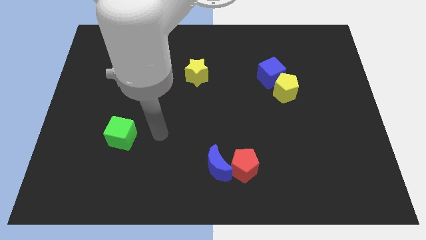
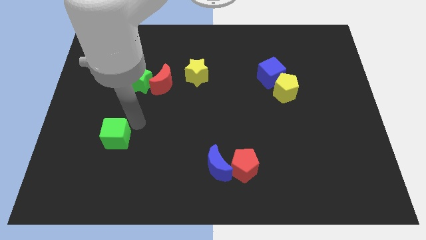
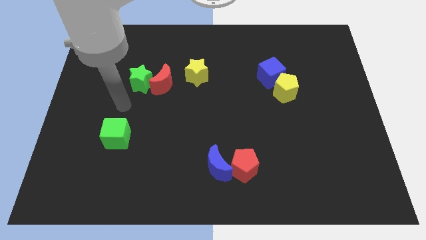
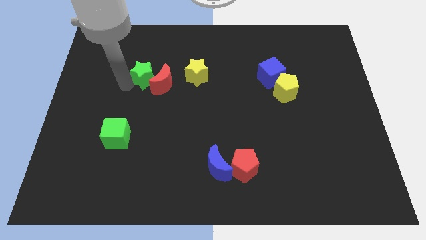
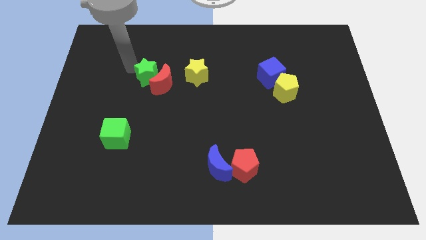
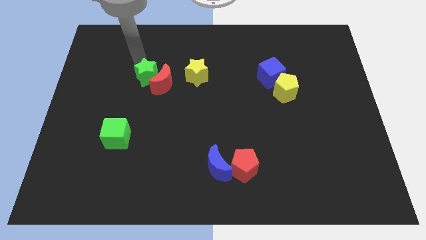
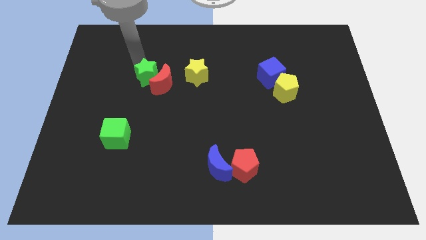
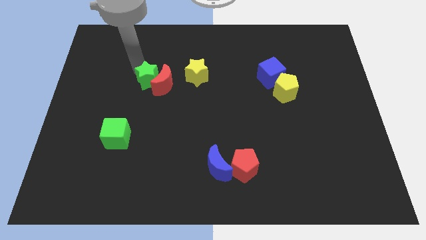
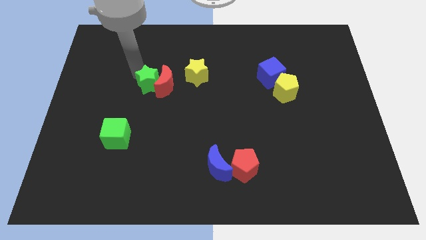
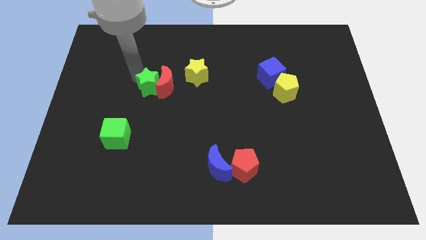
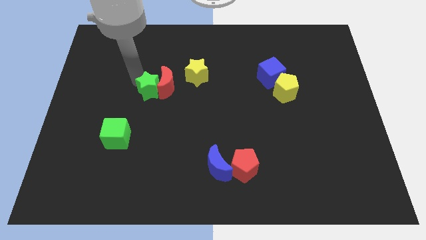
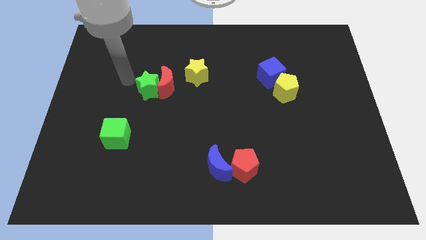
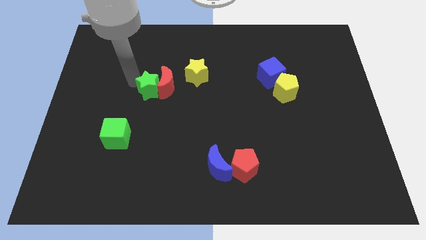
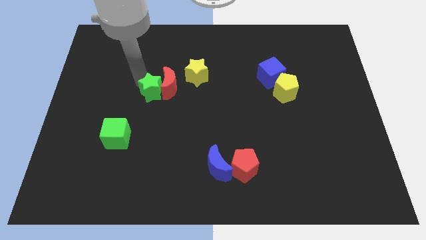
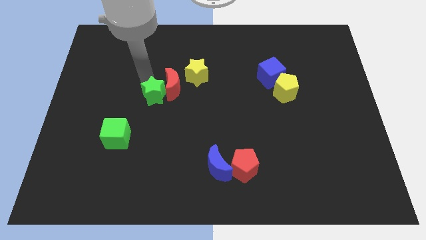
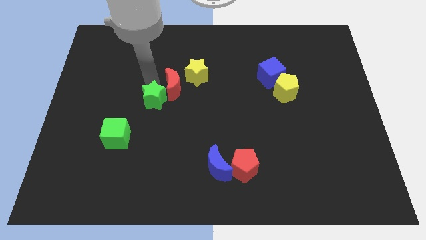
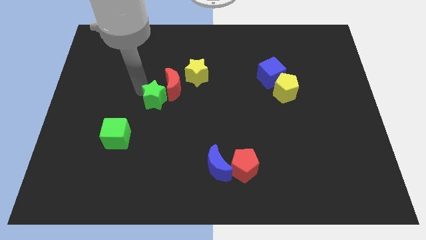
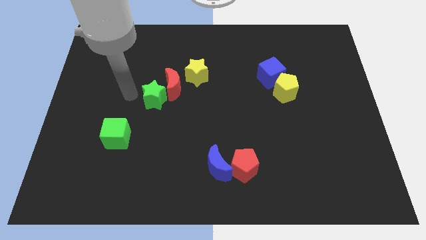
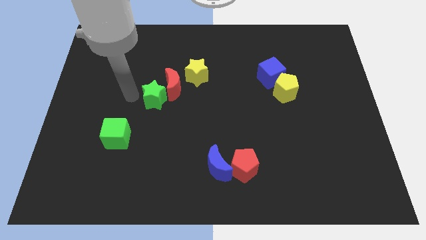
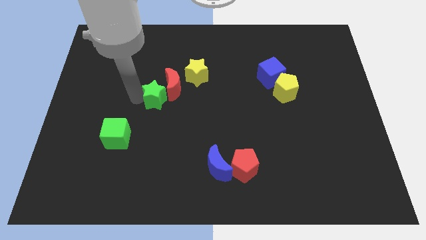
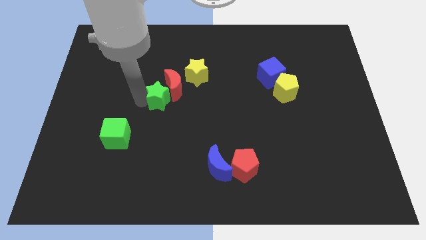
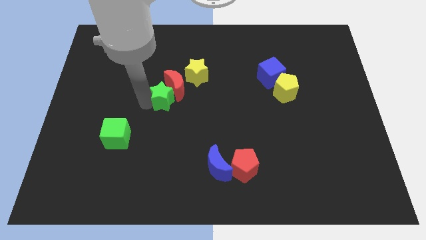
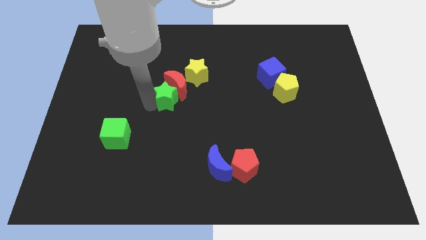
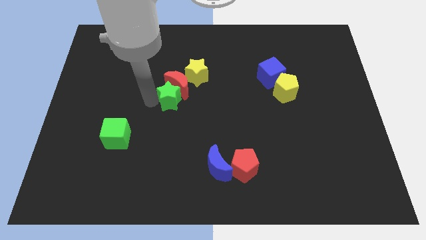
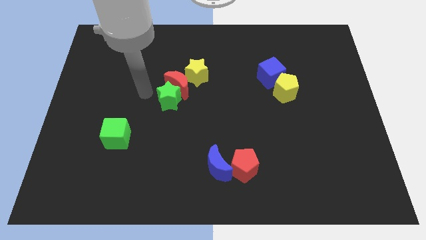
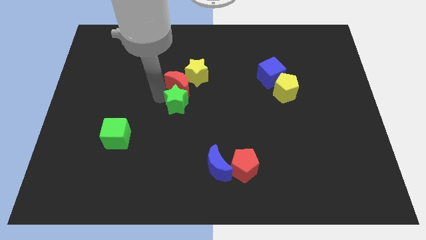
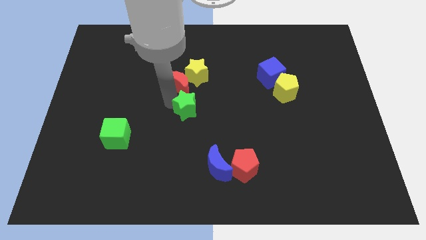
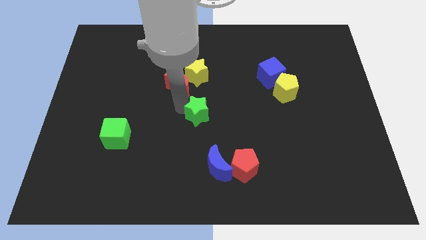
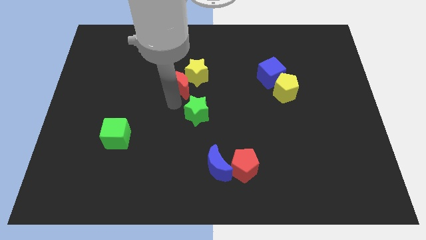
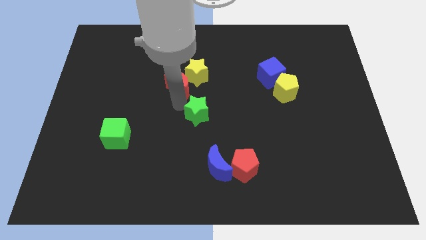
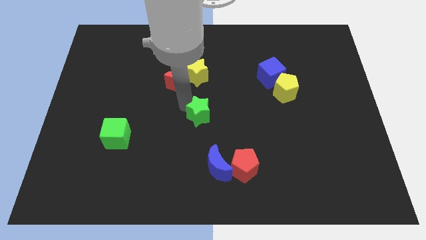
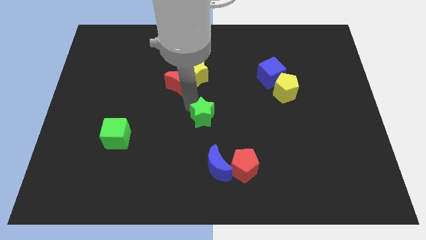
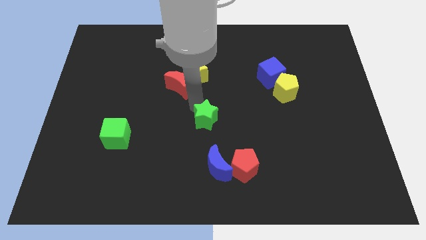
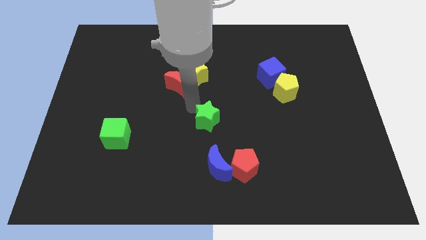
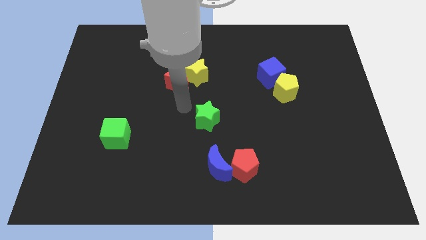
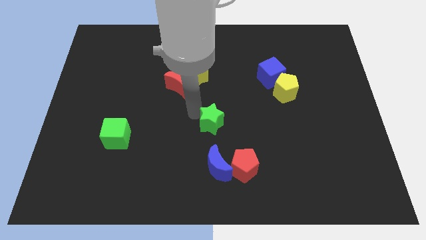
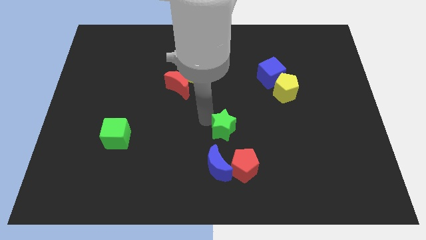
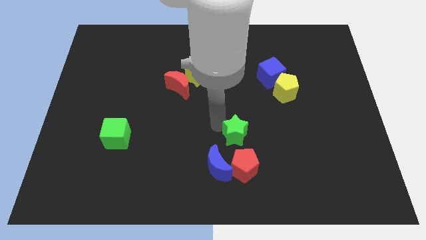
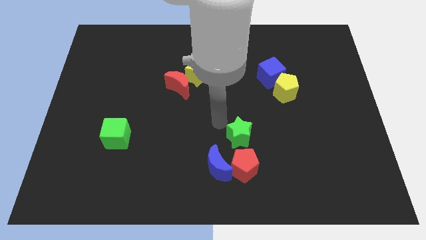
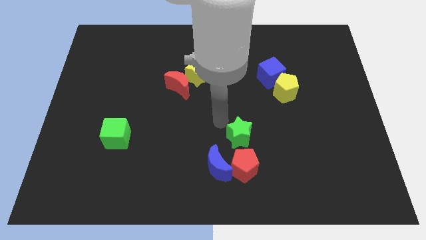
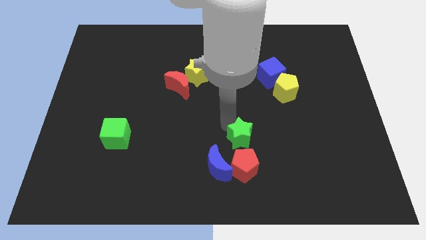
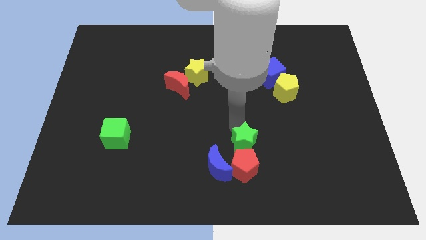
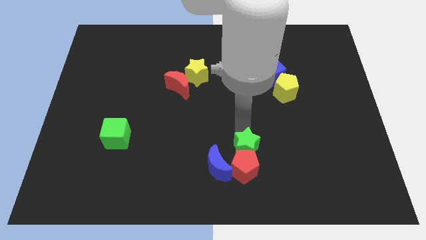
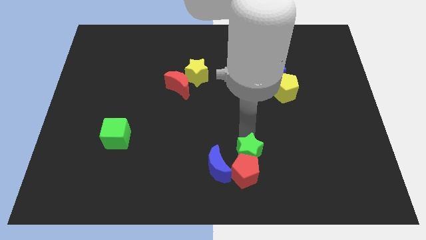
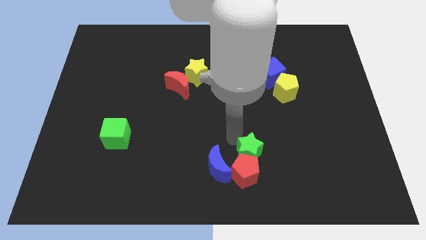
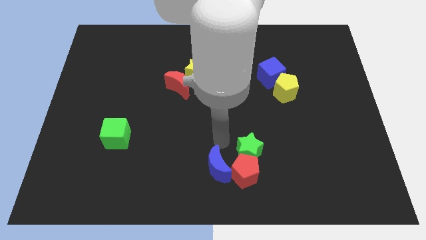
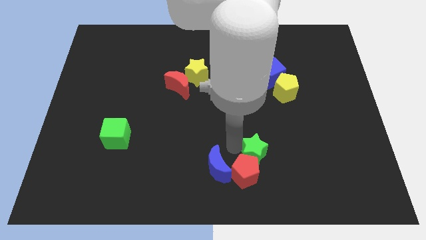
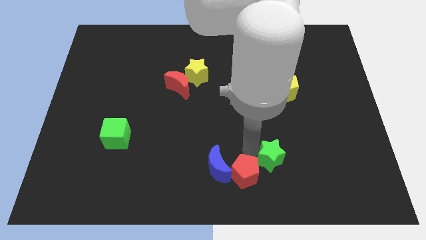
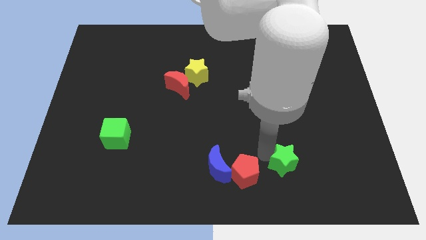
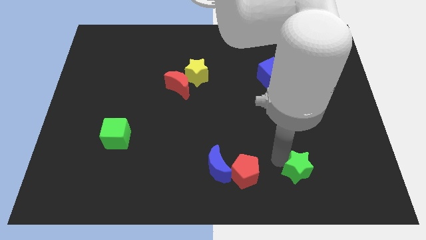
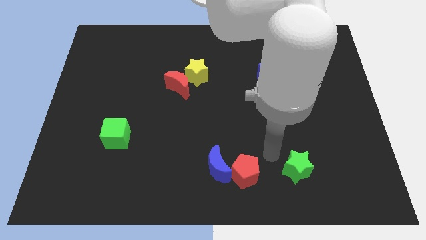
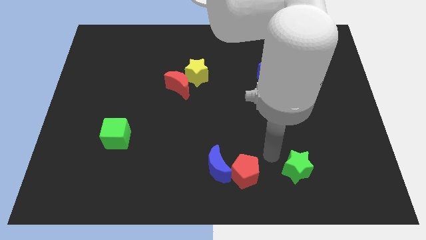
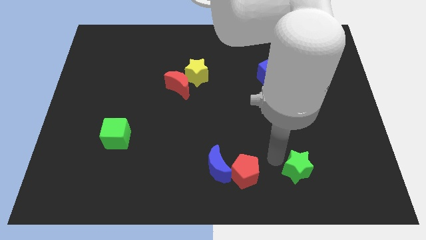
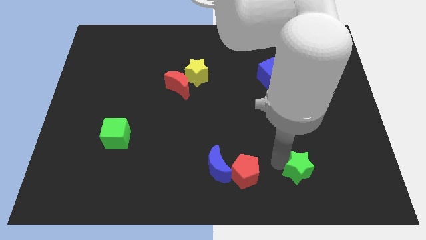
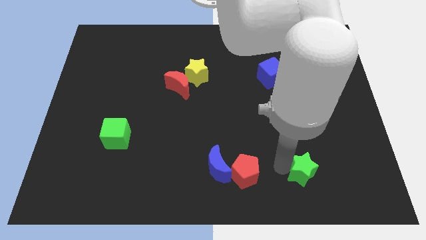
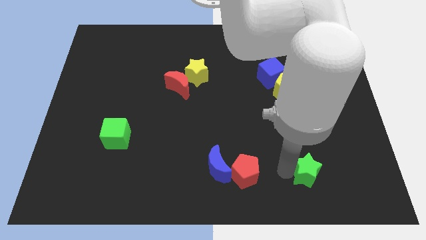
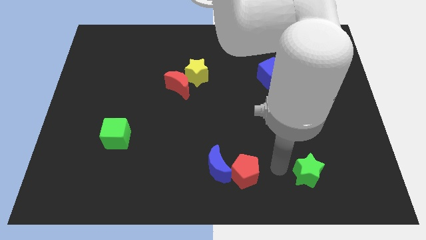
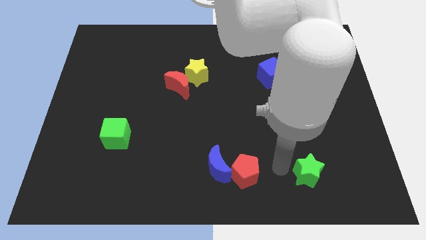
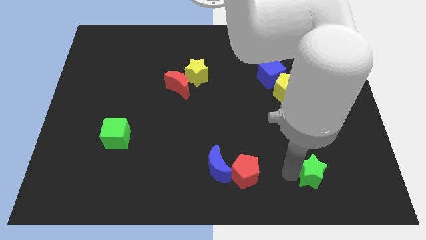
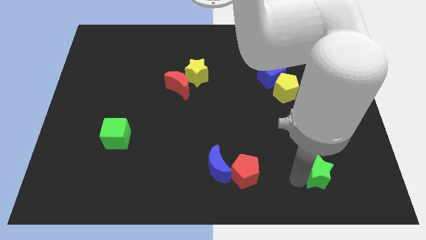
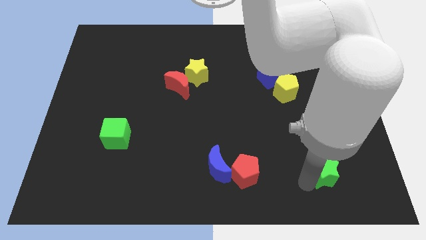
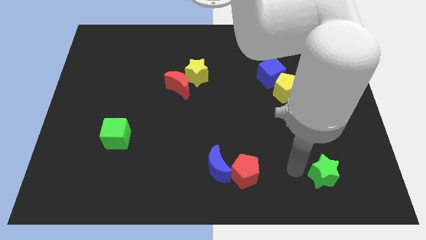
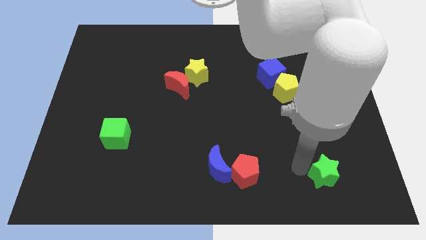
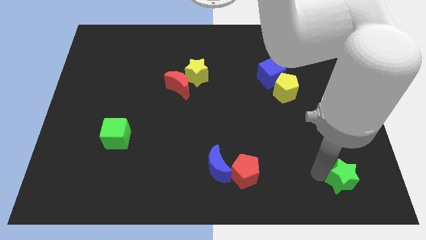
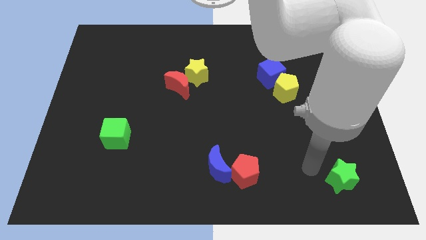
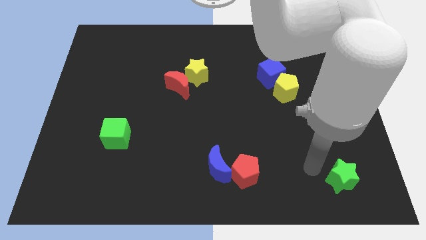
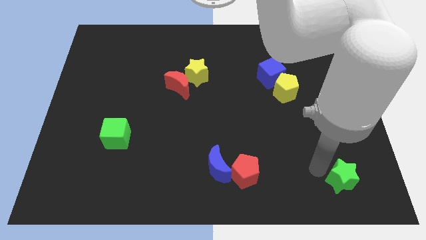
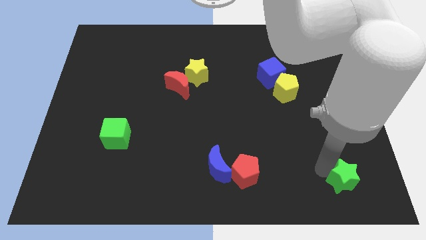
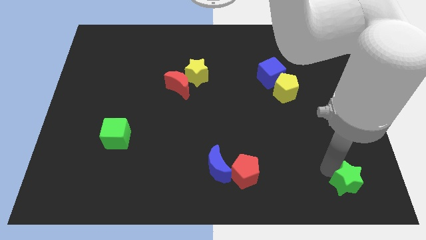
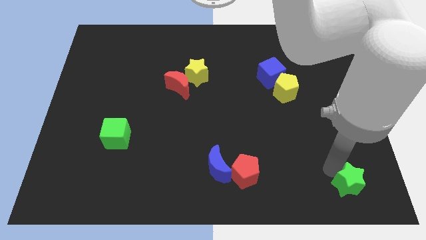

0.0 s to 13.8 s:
move the green star to the lower right corner
